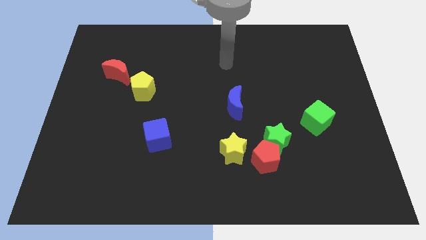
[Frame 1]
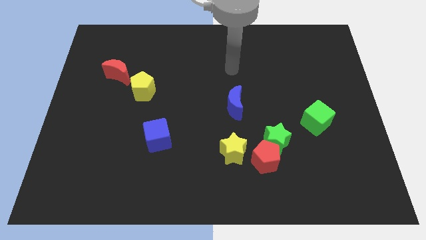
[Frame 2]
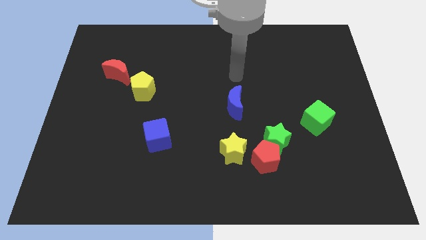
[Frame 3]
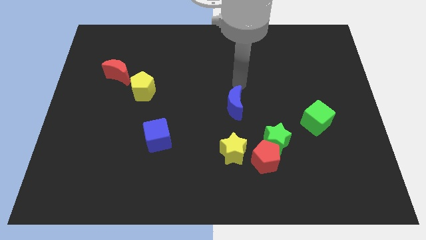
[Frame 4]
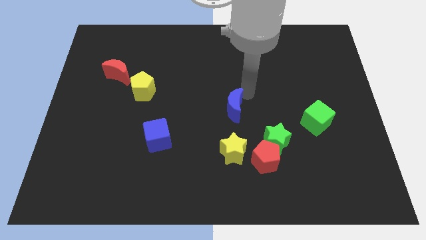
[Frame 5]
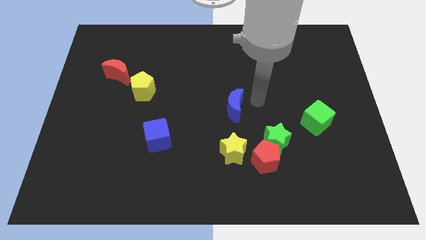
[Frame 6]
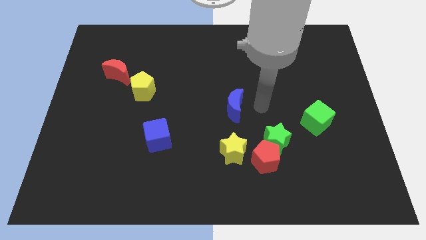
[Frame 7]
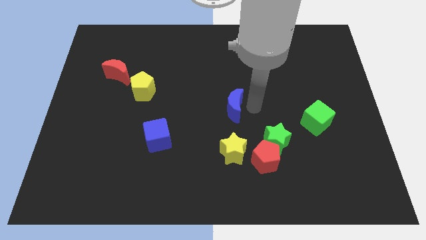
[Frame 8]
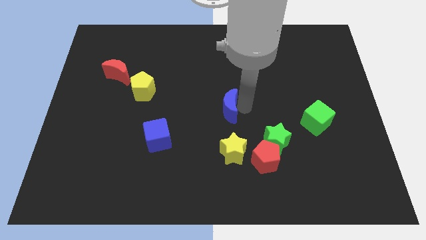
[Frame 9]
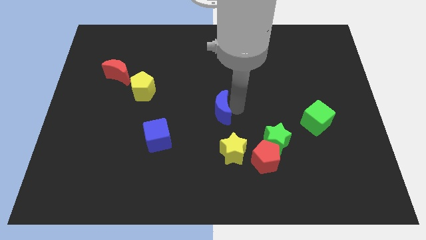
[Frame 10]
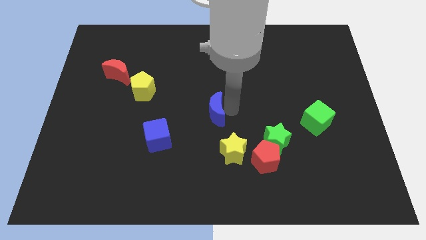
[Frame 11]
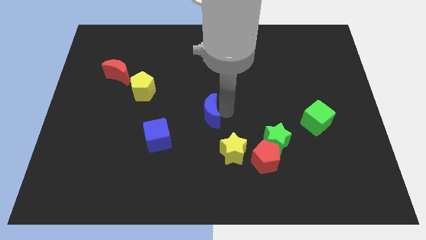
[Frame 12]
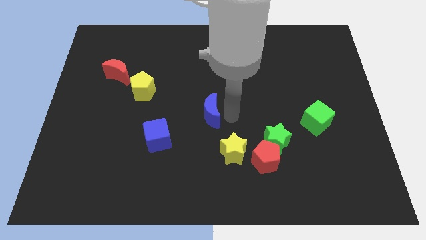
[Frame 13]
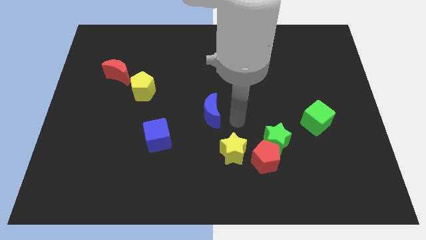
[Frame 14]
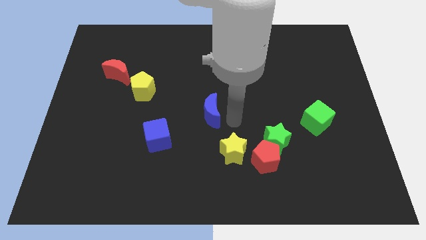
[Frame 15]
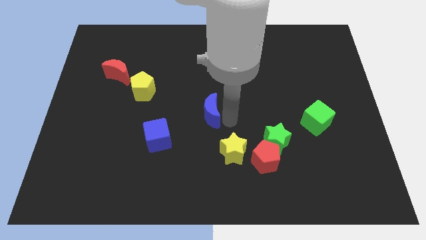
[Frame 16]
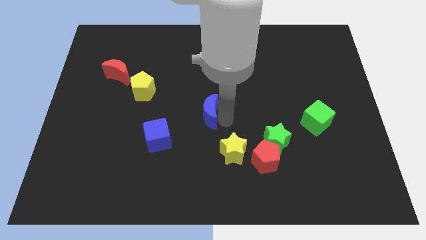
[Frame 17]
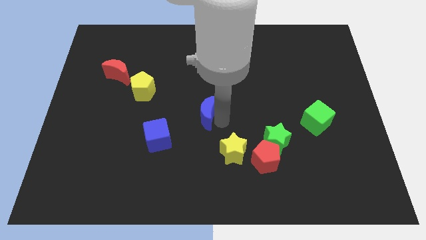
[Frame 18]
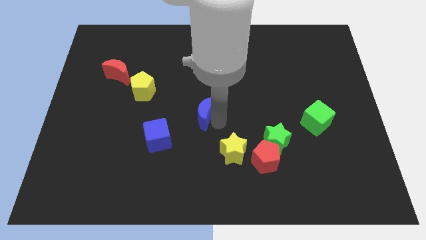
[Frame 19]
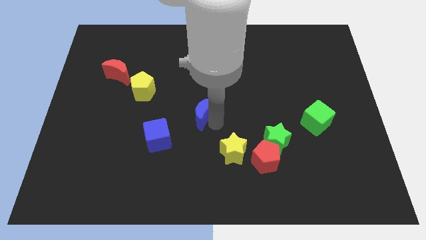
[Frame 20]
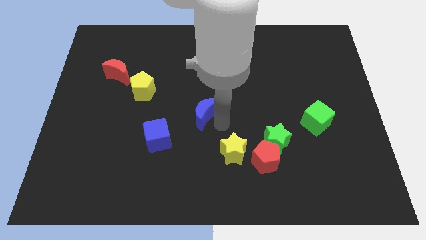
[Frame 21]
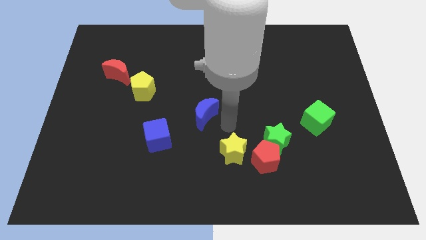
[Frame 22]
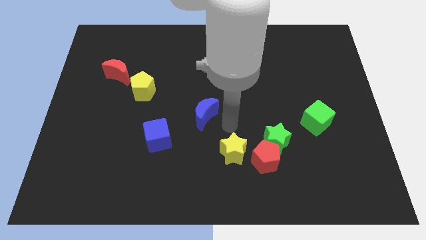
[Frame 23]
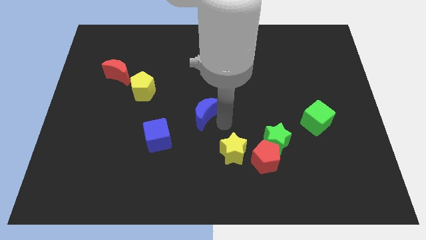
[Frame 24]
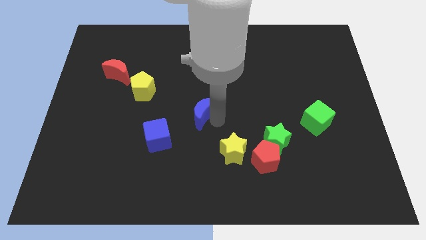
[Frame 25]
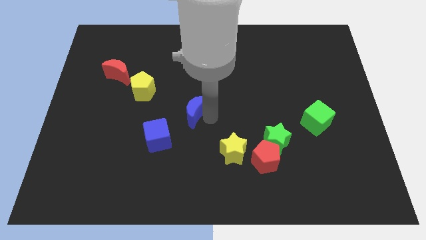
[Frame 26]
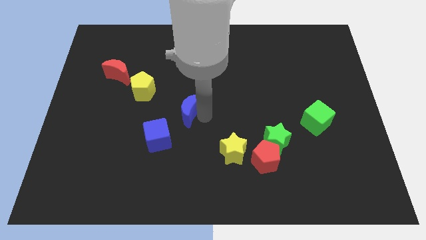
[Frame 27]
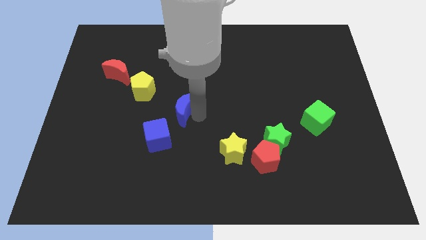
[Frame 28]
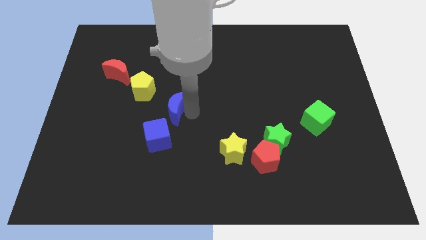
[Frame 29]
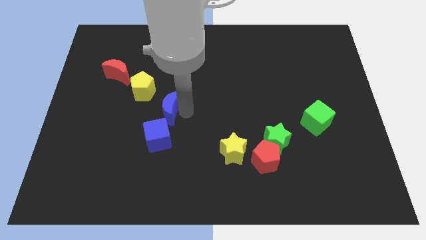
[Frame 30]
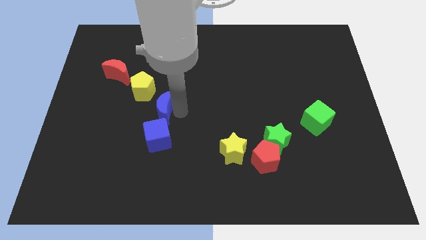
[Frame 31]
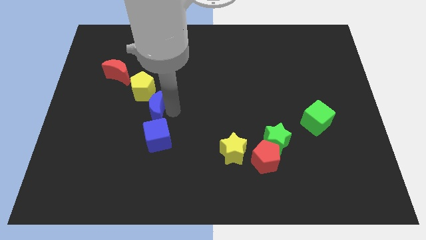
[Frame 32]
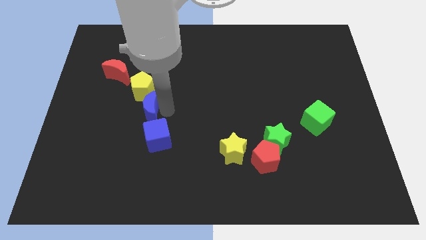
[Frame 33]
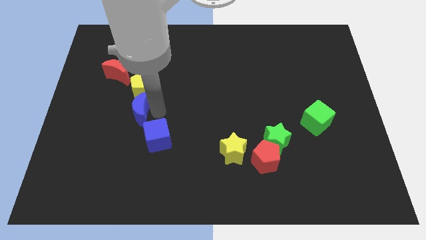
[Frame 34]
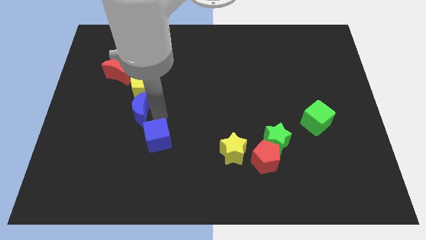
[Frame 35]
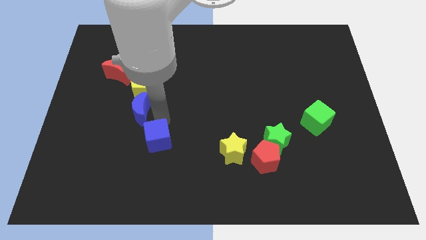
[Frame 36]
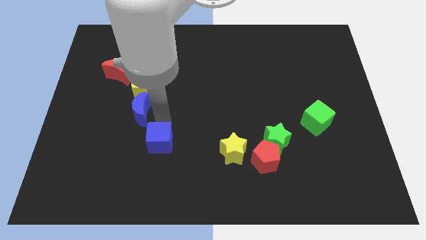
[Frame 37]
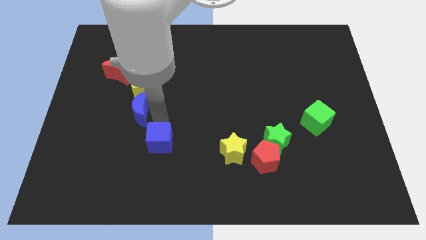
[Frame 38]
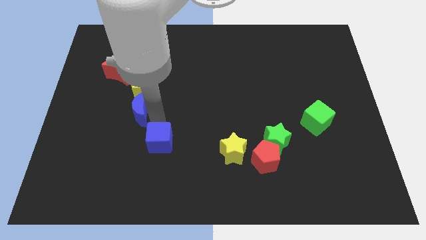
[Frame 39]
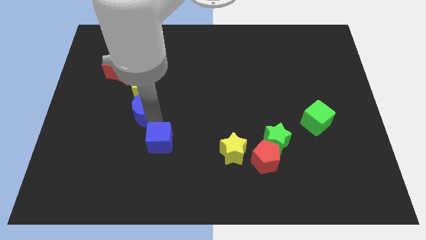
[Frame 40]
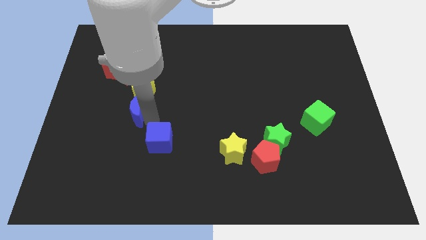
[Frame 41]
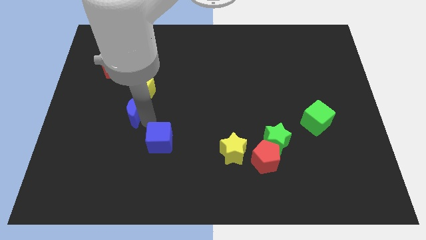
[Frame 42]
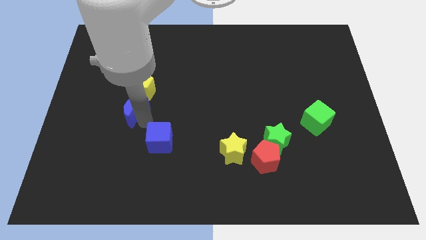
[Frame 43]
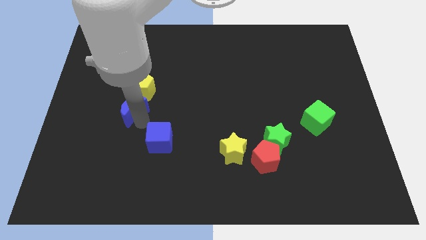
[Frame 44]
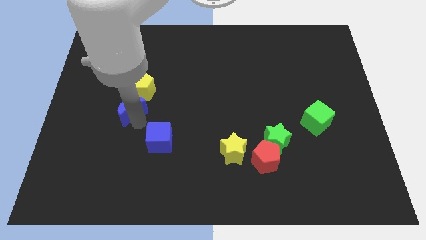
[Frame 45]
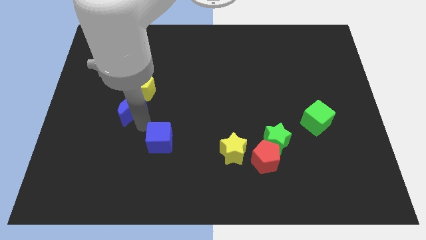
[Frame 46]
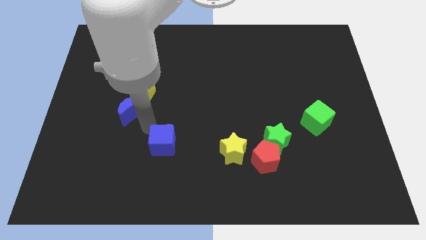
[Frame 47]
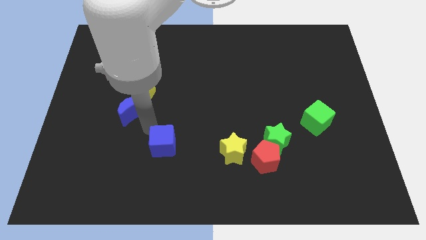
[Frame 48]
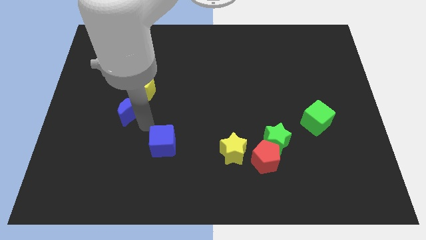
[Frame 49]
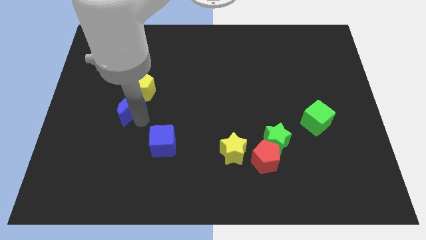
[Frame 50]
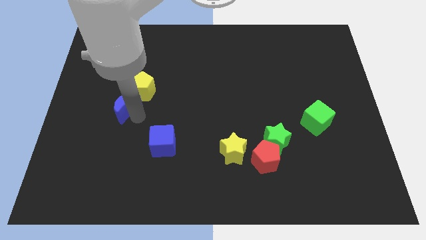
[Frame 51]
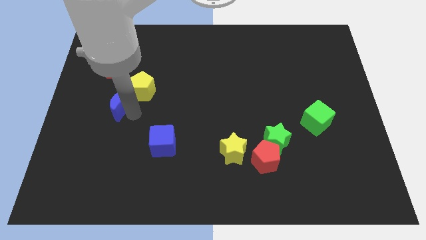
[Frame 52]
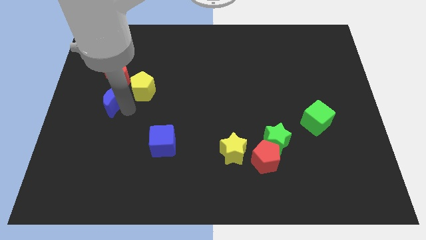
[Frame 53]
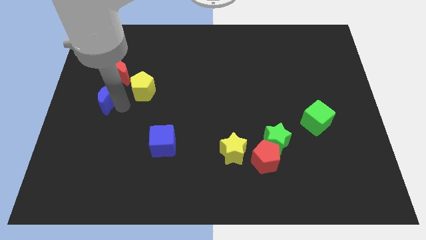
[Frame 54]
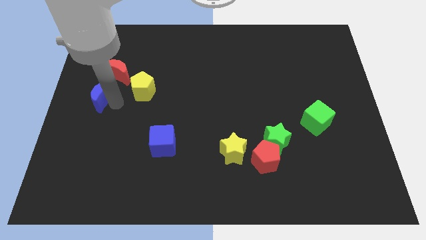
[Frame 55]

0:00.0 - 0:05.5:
slide the blue moon to the bottom left of the red moon

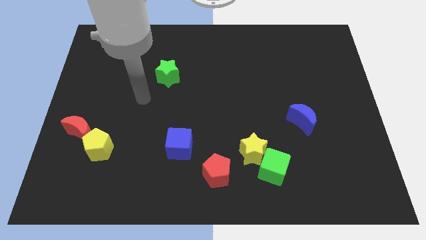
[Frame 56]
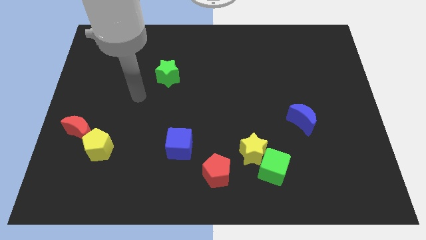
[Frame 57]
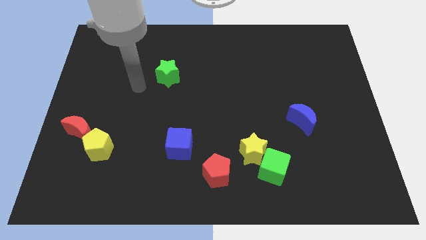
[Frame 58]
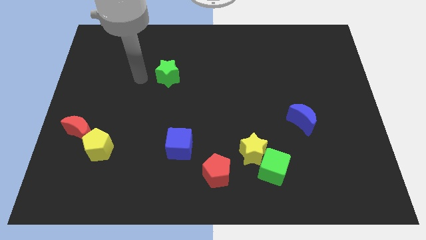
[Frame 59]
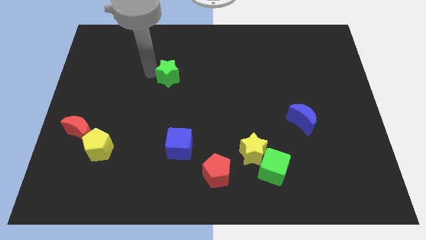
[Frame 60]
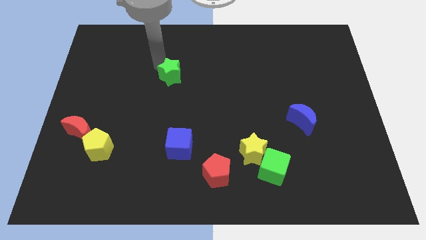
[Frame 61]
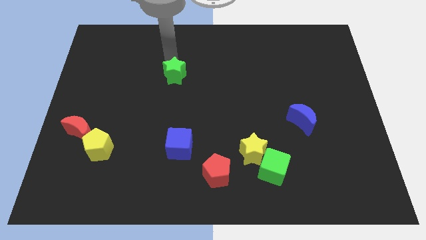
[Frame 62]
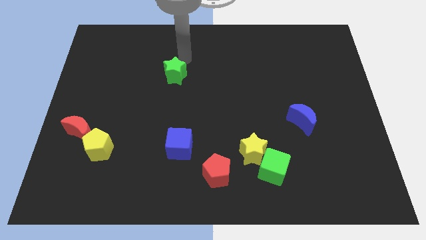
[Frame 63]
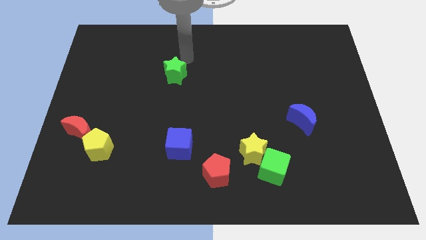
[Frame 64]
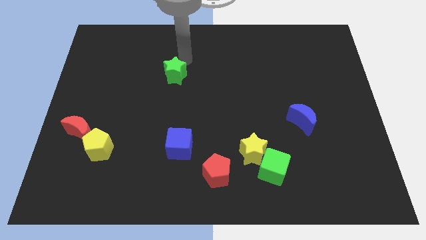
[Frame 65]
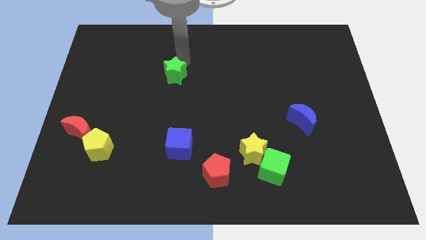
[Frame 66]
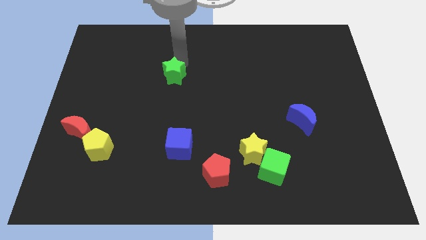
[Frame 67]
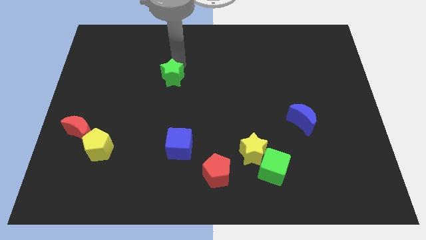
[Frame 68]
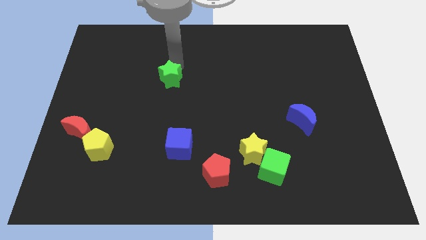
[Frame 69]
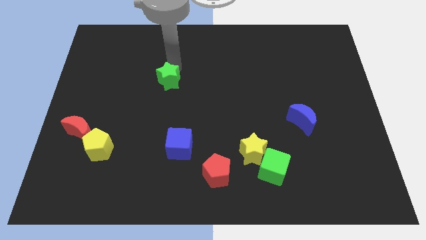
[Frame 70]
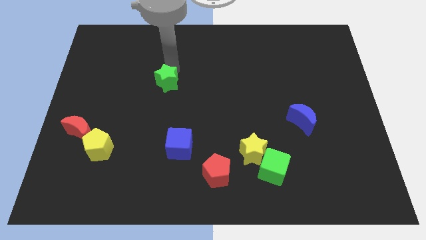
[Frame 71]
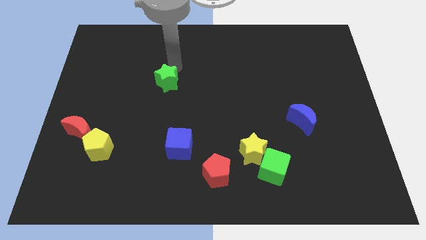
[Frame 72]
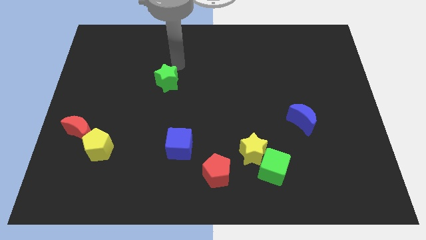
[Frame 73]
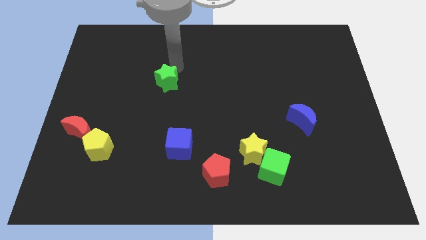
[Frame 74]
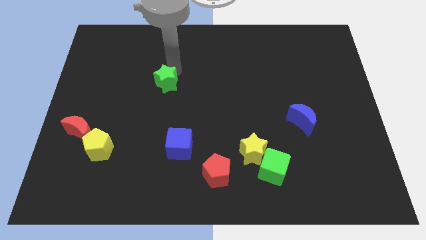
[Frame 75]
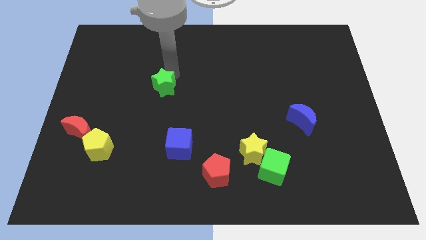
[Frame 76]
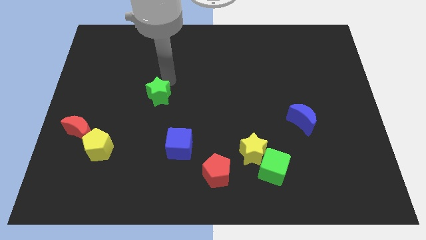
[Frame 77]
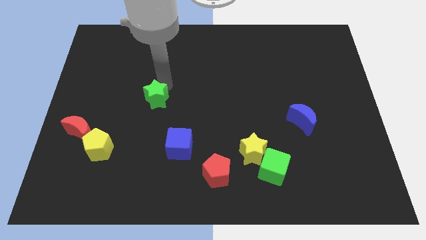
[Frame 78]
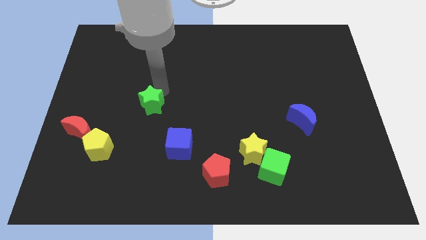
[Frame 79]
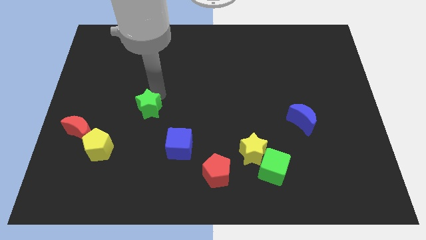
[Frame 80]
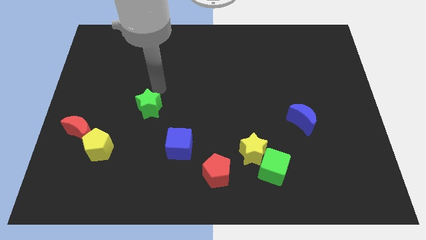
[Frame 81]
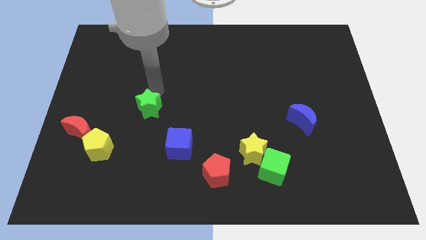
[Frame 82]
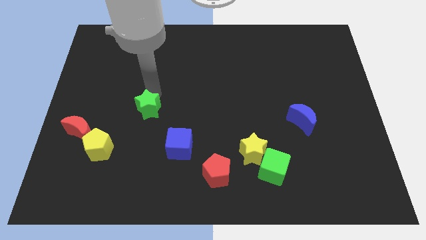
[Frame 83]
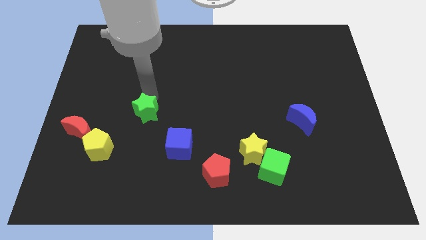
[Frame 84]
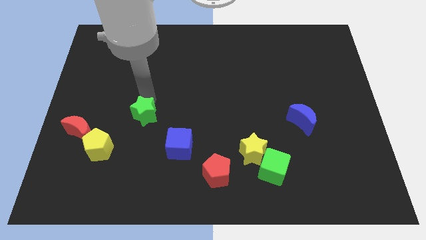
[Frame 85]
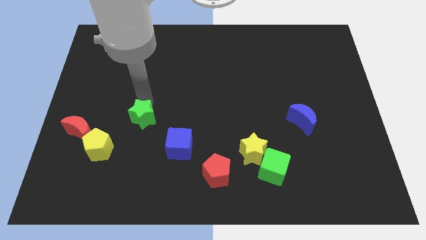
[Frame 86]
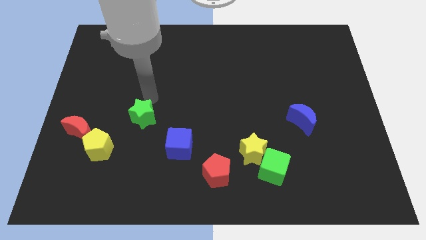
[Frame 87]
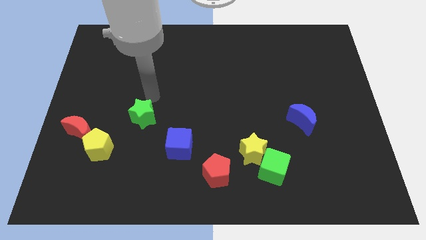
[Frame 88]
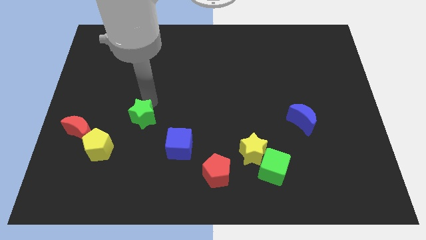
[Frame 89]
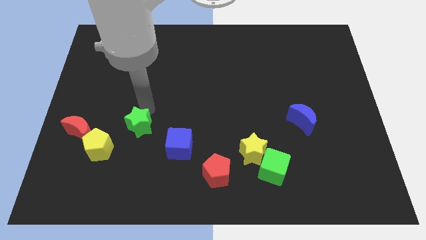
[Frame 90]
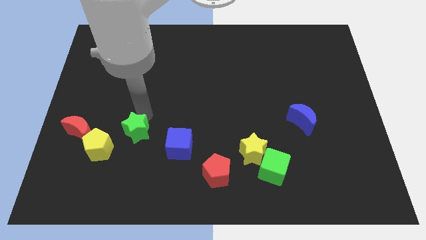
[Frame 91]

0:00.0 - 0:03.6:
push the green star just left of the blue cube
